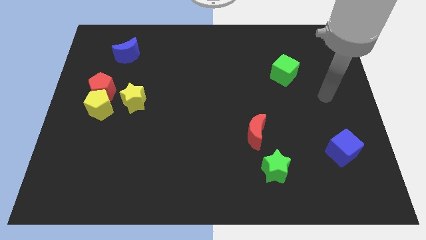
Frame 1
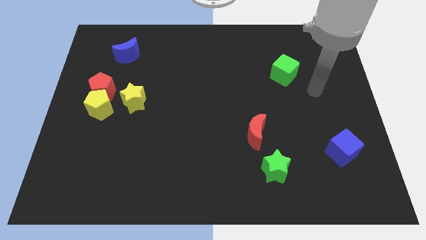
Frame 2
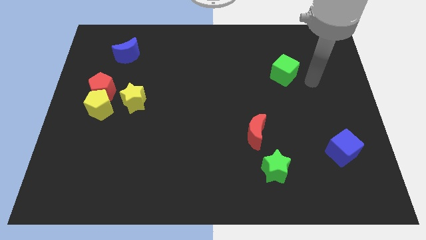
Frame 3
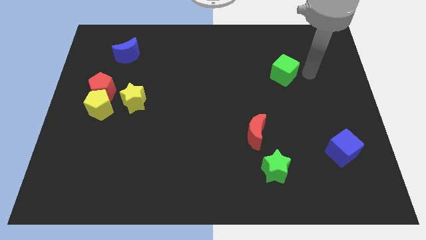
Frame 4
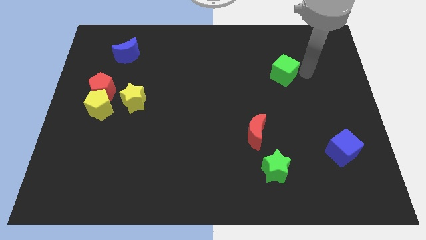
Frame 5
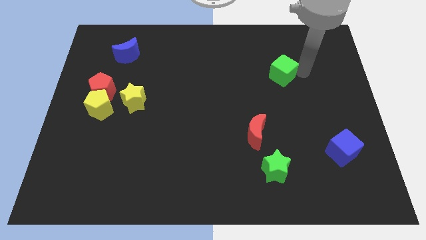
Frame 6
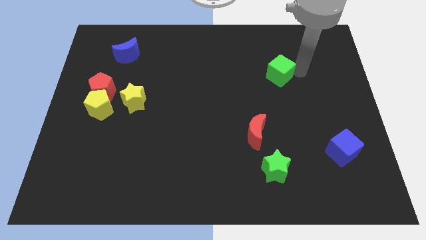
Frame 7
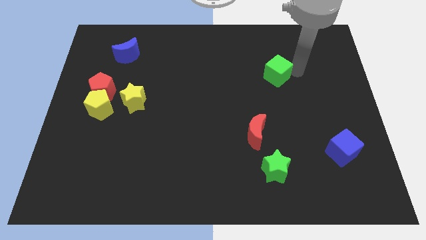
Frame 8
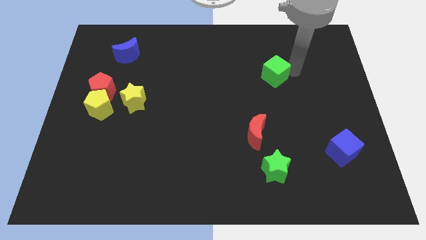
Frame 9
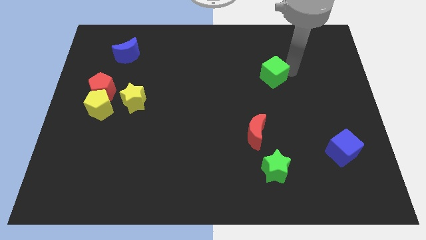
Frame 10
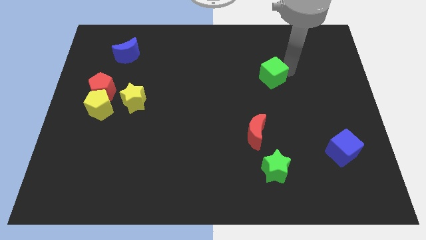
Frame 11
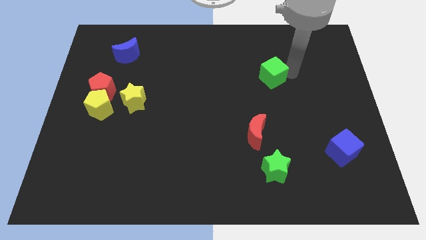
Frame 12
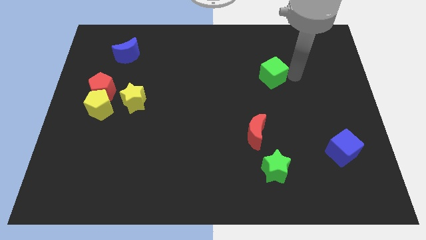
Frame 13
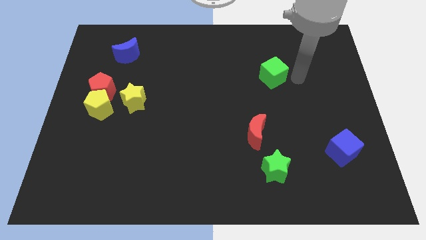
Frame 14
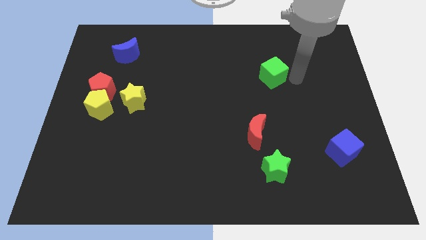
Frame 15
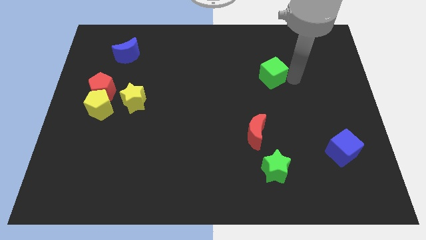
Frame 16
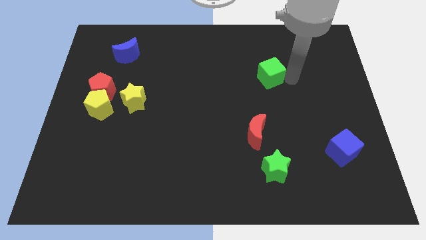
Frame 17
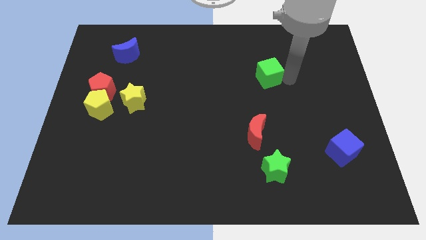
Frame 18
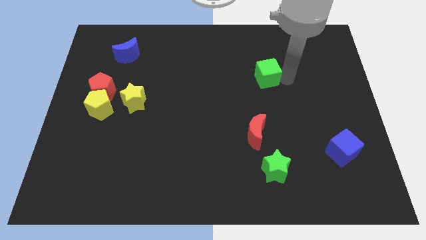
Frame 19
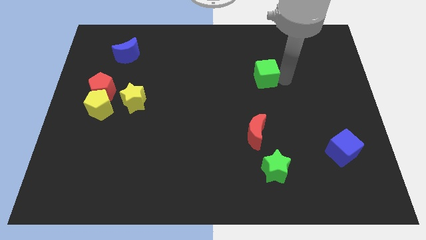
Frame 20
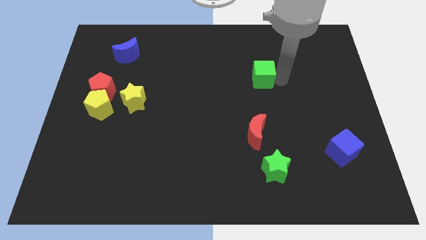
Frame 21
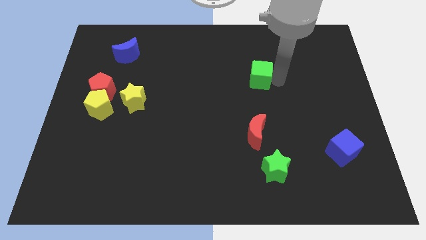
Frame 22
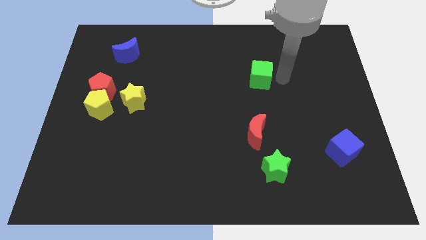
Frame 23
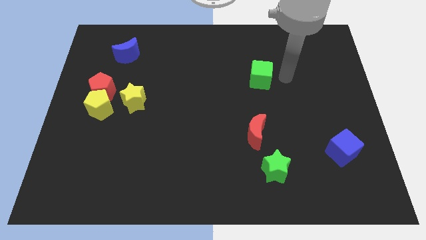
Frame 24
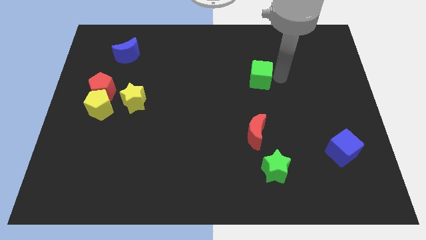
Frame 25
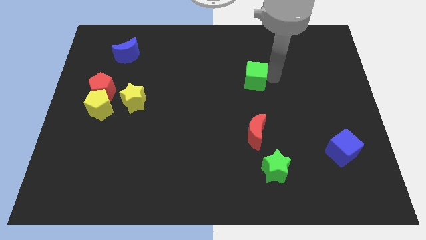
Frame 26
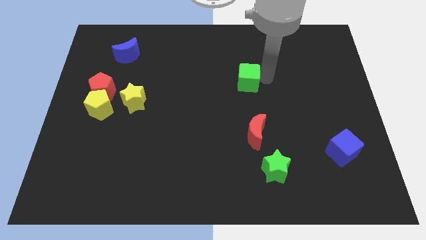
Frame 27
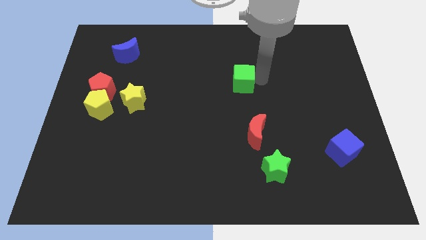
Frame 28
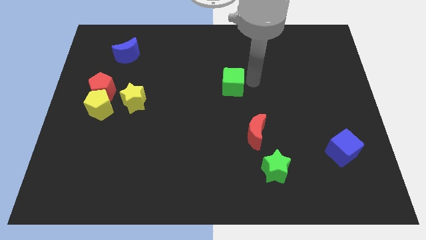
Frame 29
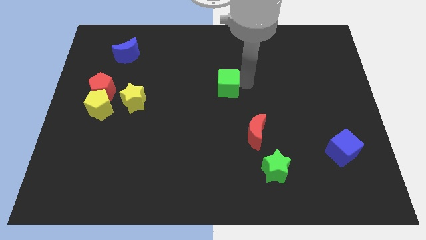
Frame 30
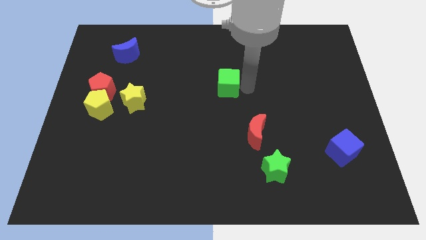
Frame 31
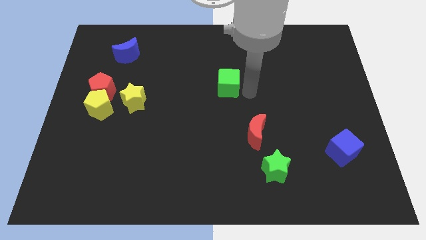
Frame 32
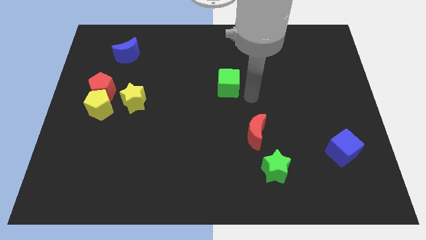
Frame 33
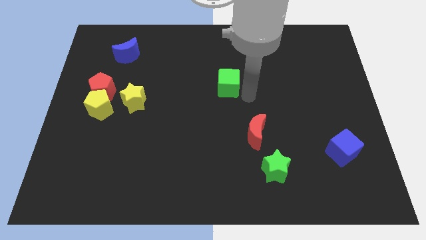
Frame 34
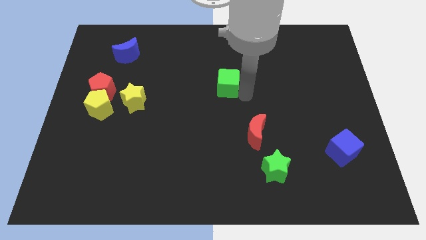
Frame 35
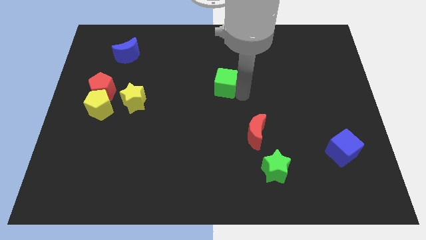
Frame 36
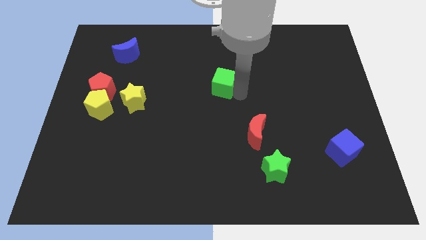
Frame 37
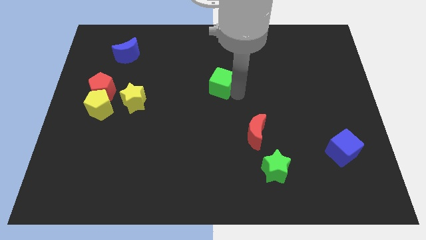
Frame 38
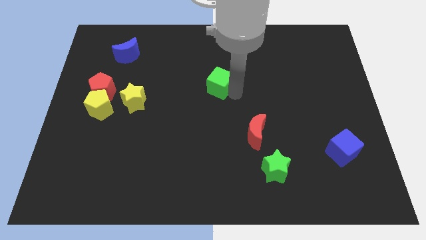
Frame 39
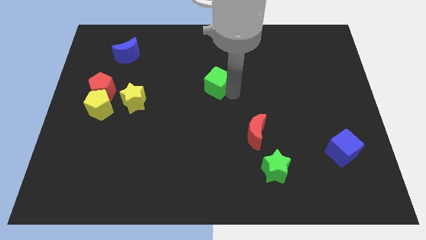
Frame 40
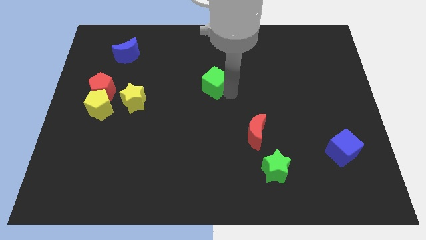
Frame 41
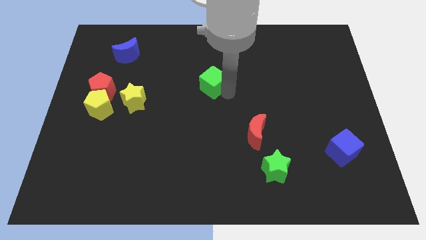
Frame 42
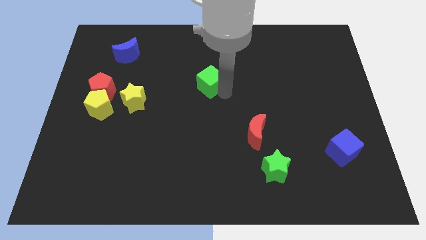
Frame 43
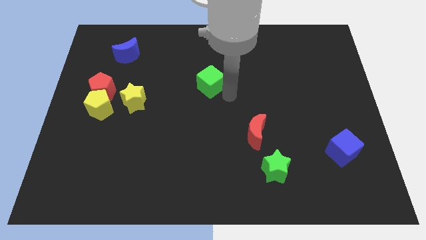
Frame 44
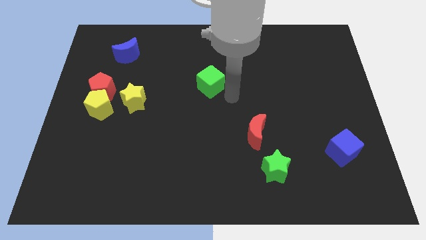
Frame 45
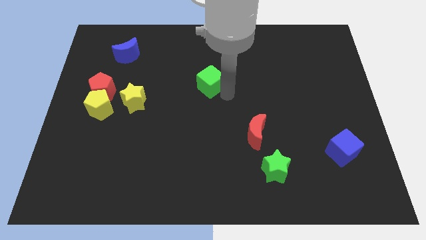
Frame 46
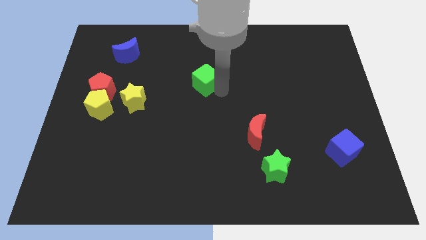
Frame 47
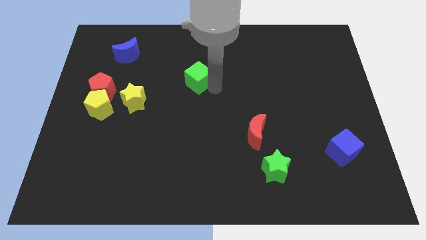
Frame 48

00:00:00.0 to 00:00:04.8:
push the green cube left

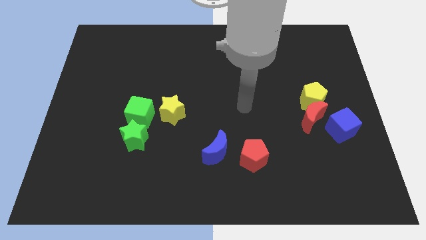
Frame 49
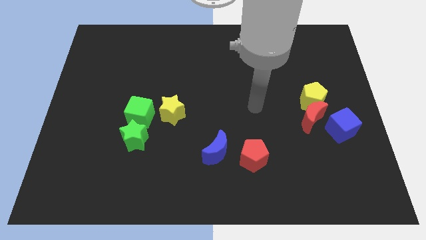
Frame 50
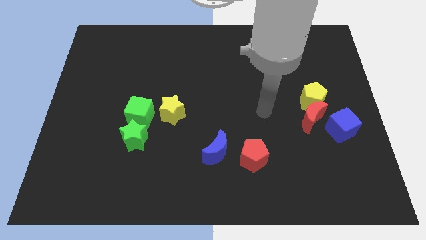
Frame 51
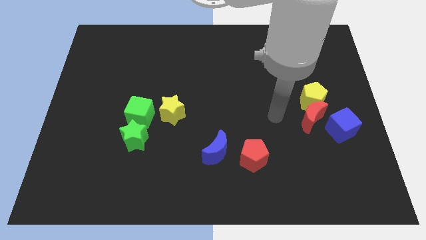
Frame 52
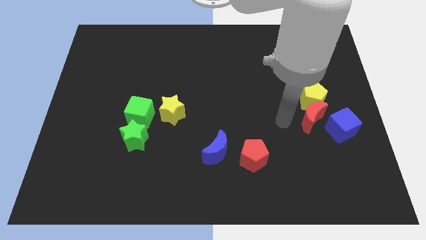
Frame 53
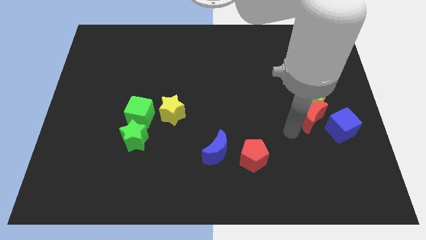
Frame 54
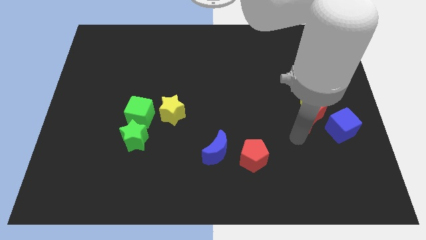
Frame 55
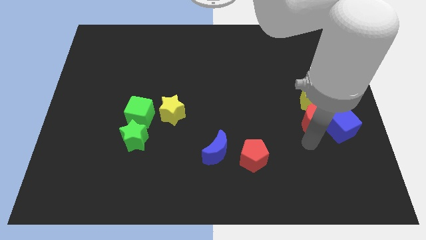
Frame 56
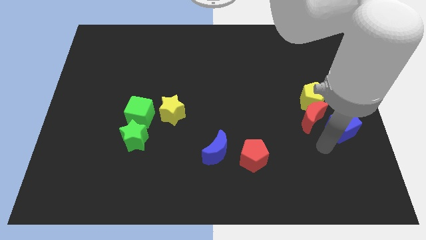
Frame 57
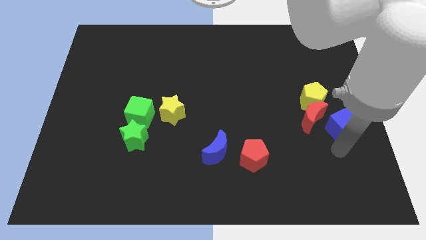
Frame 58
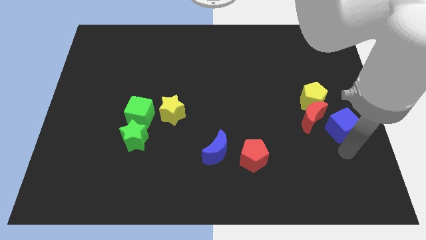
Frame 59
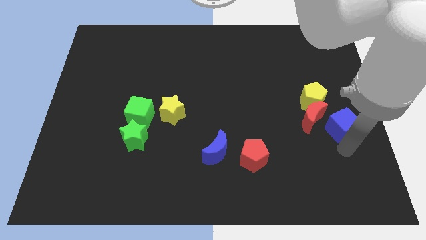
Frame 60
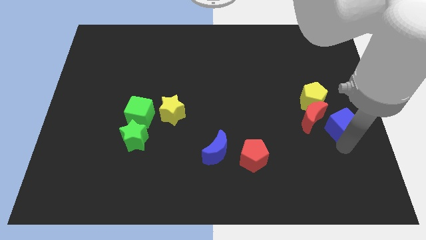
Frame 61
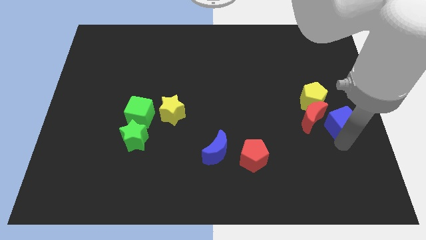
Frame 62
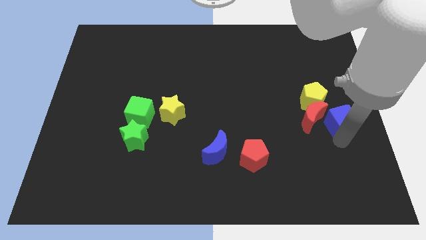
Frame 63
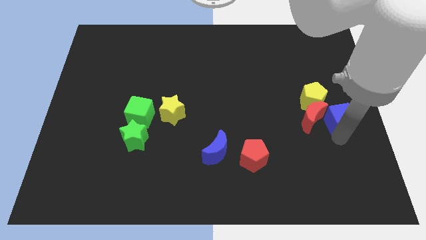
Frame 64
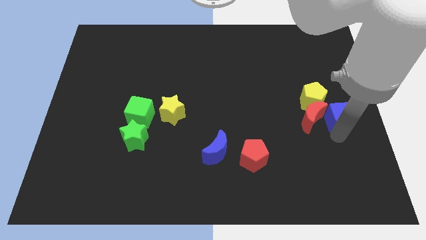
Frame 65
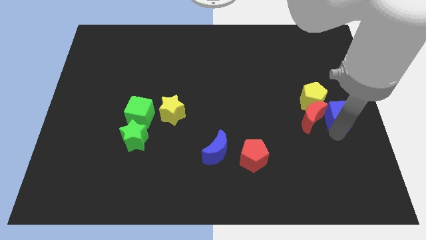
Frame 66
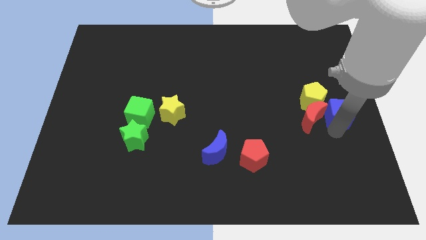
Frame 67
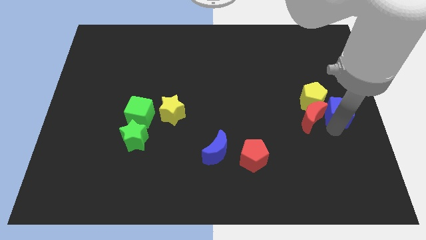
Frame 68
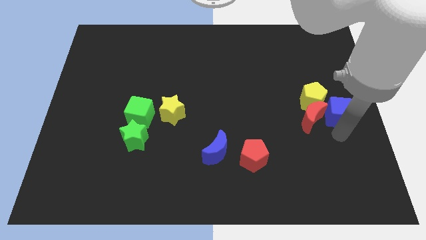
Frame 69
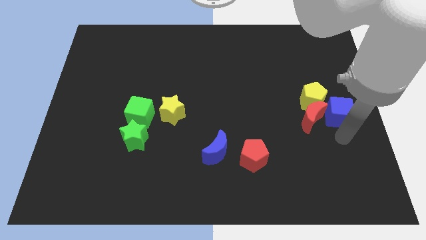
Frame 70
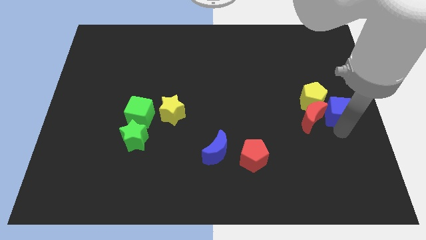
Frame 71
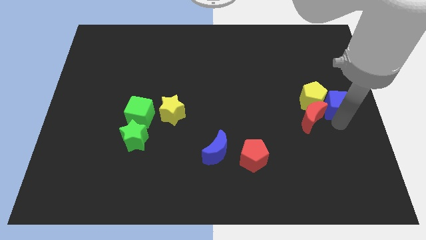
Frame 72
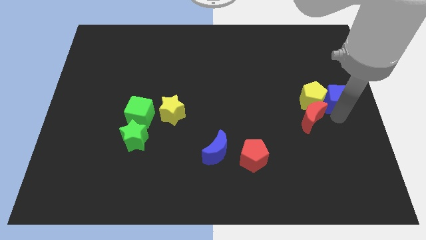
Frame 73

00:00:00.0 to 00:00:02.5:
move the blue cube a little up

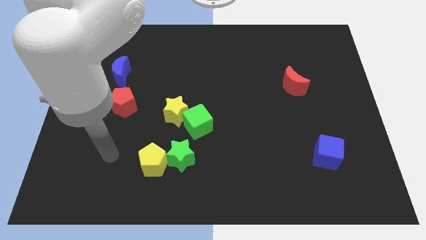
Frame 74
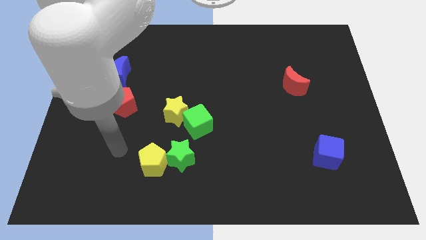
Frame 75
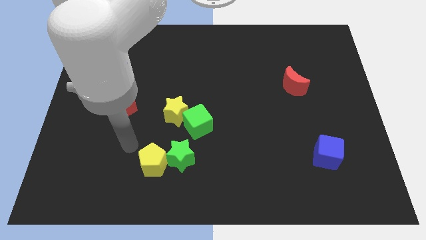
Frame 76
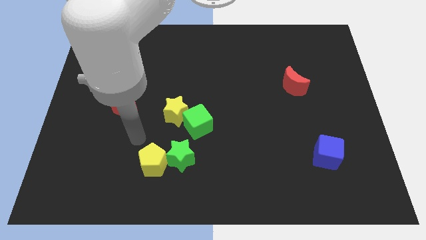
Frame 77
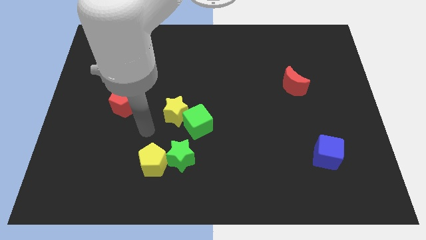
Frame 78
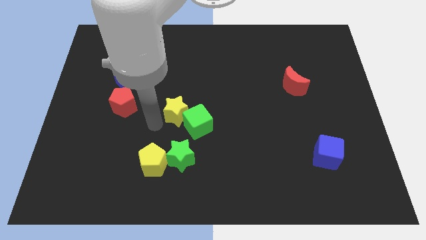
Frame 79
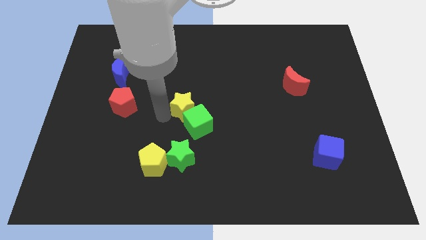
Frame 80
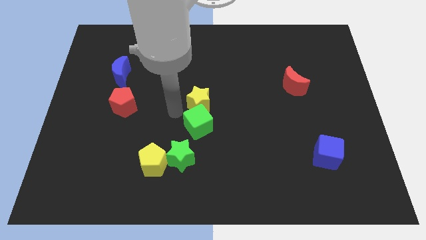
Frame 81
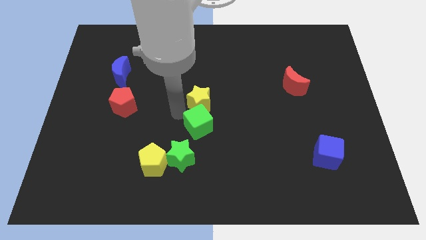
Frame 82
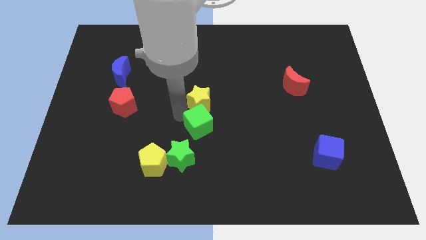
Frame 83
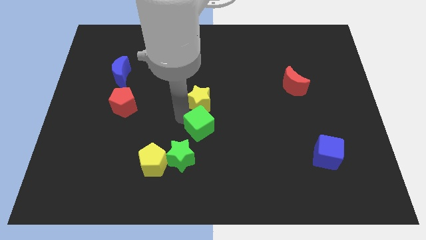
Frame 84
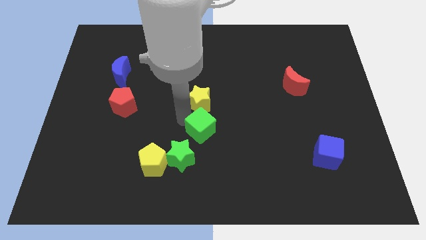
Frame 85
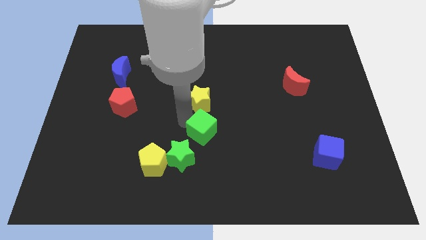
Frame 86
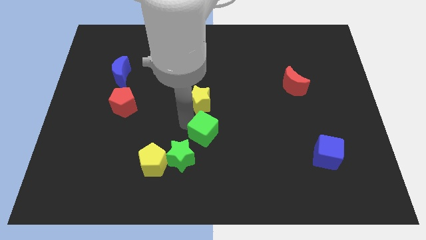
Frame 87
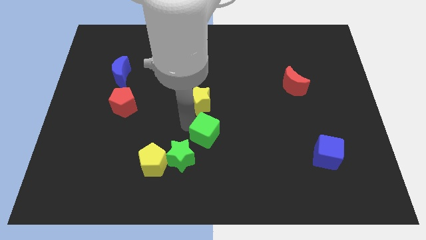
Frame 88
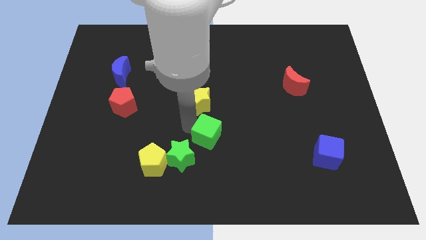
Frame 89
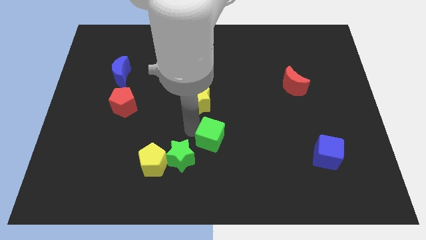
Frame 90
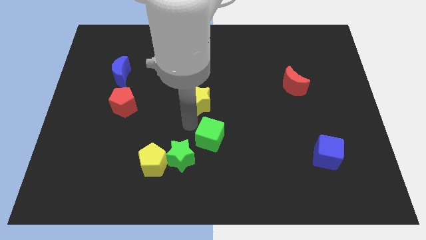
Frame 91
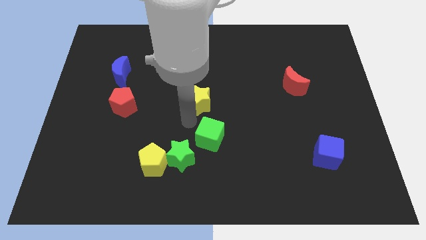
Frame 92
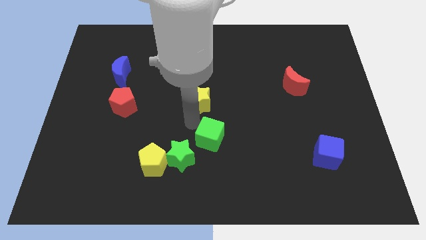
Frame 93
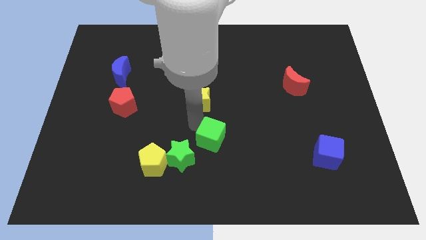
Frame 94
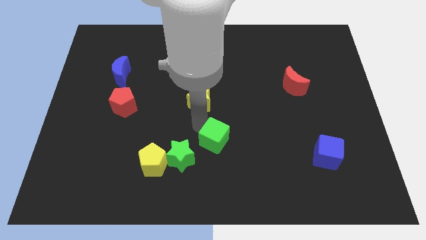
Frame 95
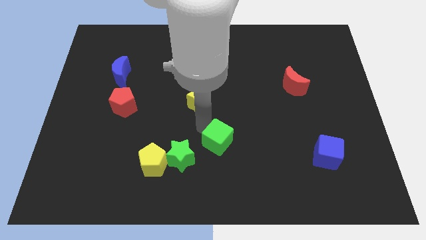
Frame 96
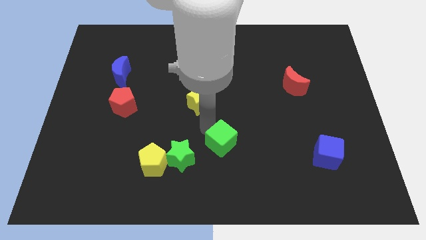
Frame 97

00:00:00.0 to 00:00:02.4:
slightly push the green cube diagonally downwards and right
